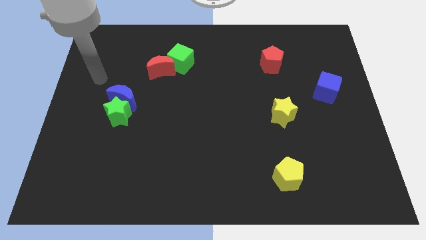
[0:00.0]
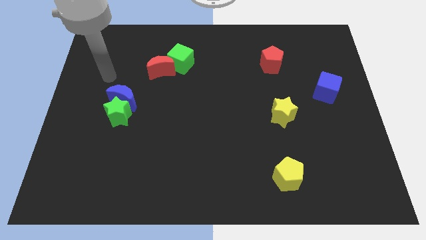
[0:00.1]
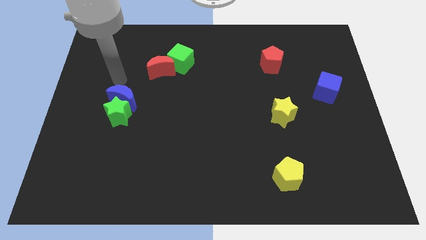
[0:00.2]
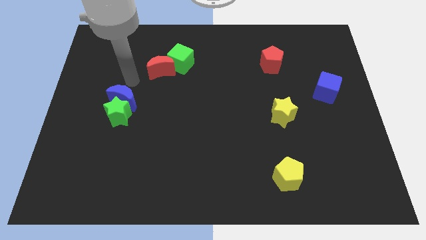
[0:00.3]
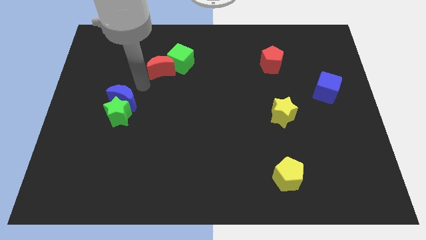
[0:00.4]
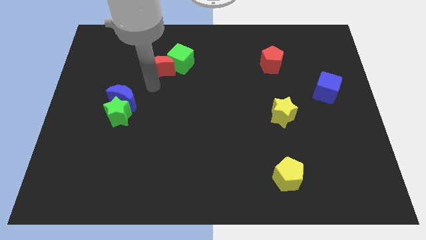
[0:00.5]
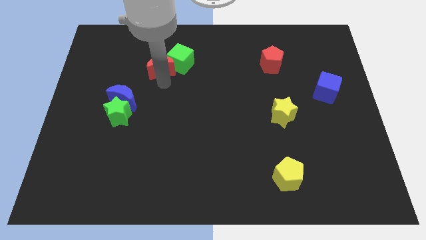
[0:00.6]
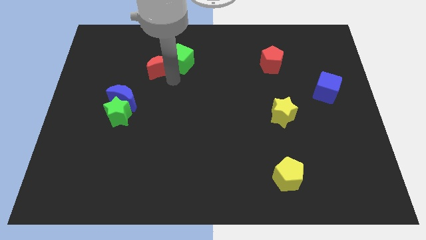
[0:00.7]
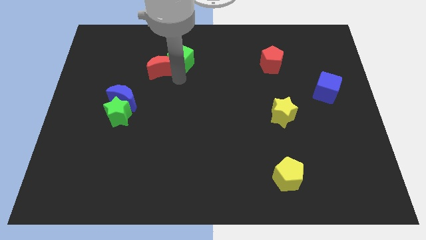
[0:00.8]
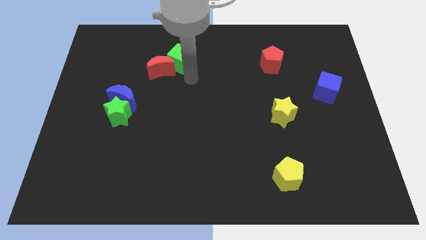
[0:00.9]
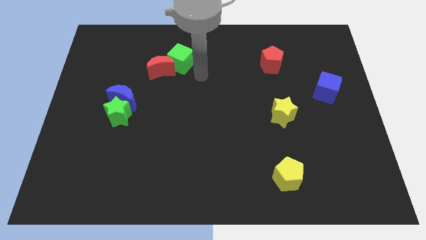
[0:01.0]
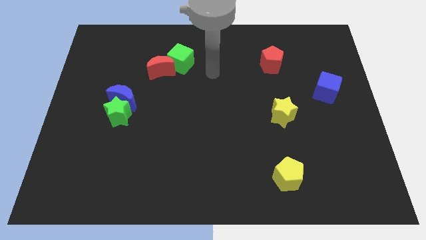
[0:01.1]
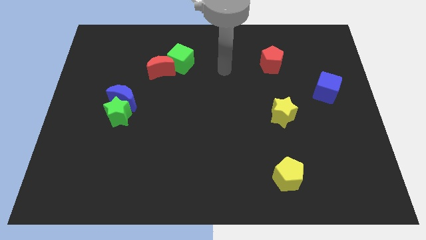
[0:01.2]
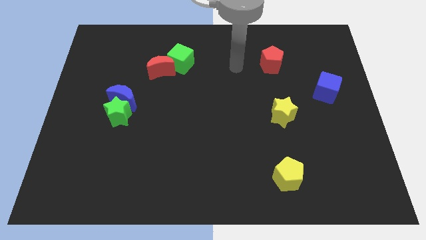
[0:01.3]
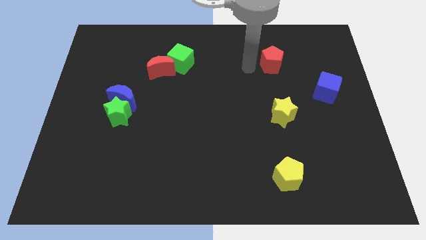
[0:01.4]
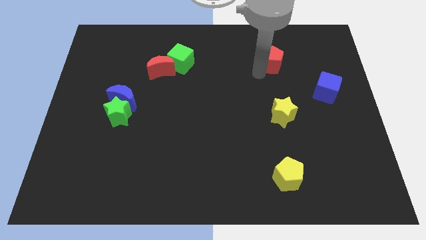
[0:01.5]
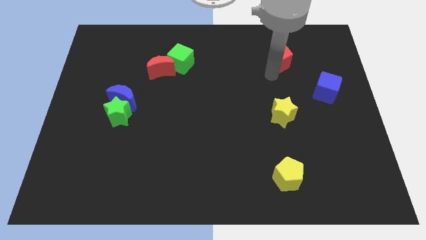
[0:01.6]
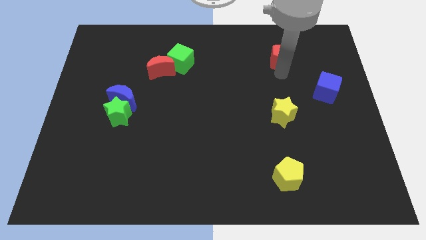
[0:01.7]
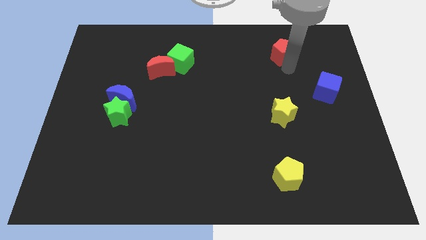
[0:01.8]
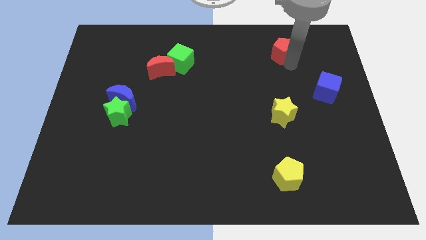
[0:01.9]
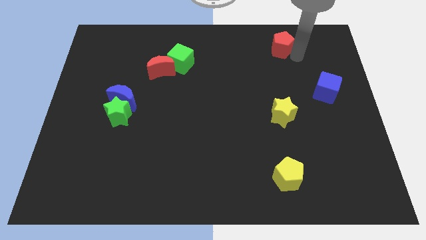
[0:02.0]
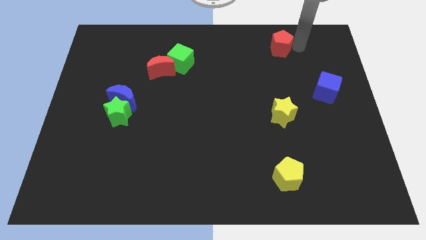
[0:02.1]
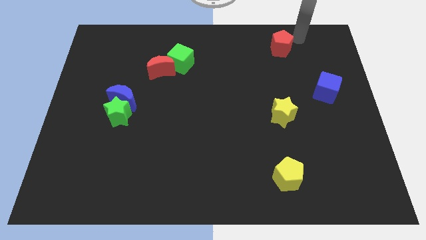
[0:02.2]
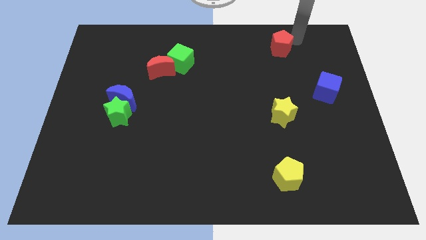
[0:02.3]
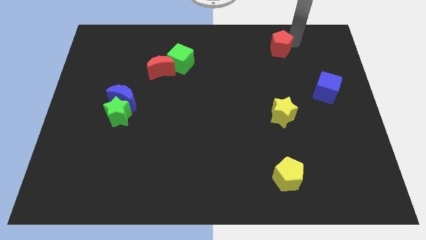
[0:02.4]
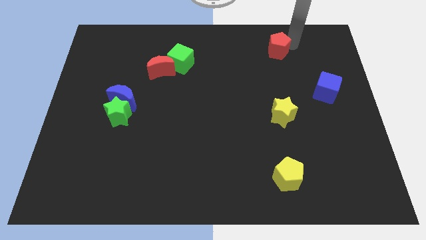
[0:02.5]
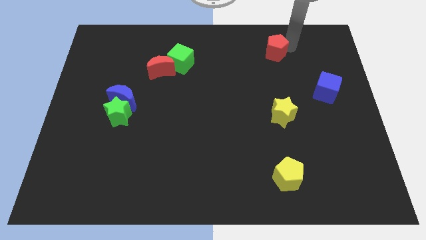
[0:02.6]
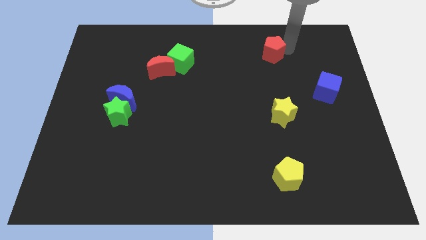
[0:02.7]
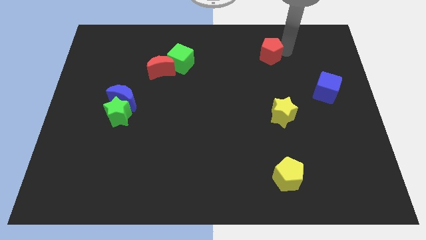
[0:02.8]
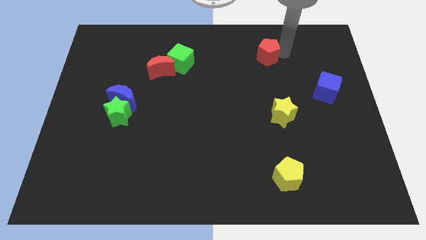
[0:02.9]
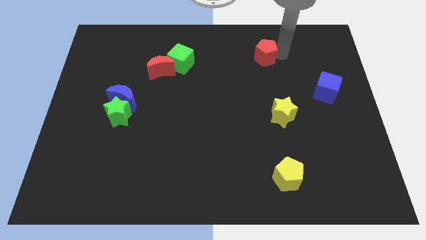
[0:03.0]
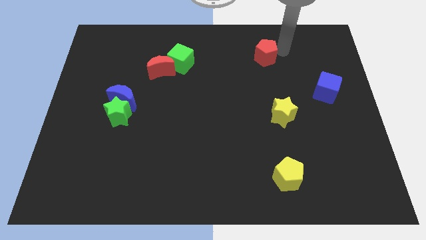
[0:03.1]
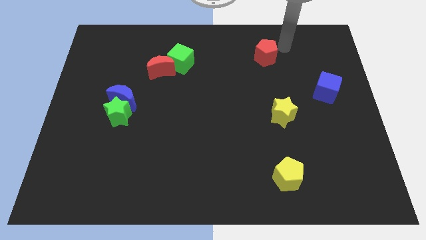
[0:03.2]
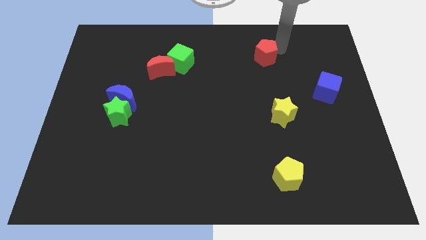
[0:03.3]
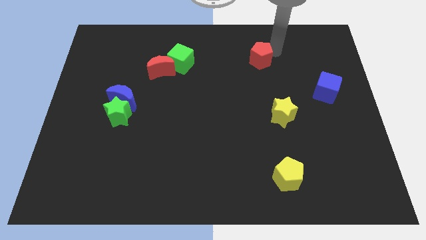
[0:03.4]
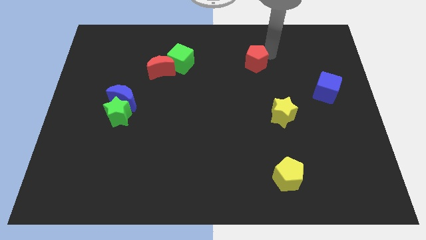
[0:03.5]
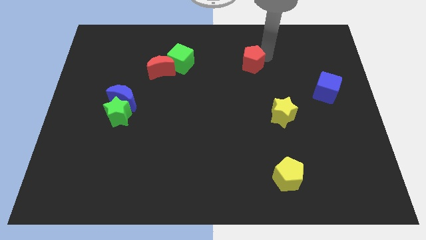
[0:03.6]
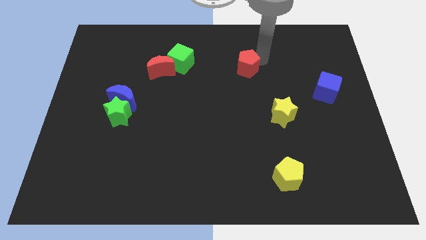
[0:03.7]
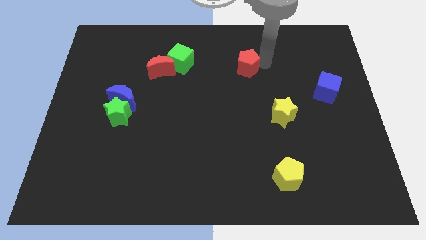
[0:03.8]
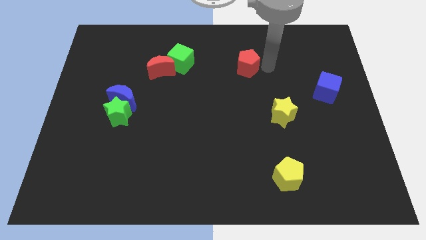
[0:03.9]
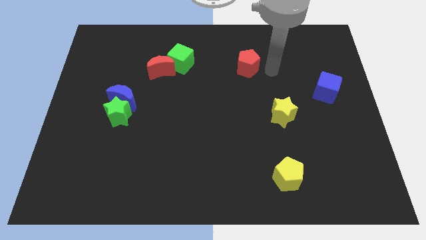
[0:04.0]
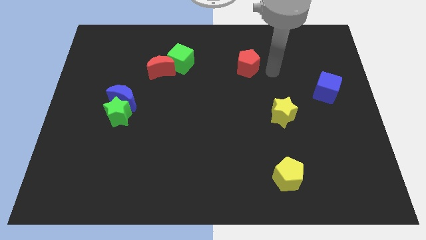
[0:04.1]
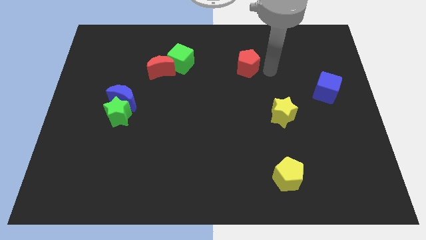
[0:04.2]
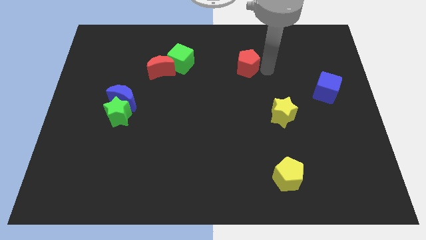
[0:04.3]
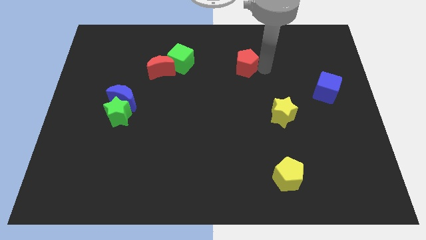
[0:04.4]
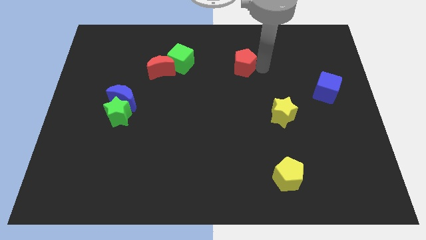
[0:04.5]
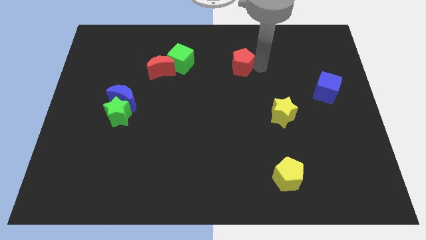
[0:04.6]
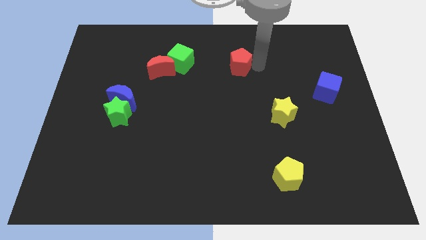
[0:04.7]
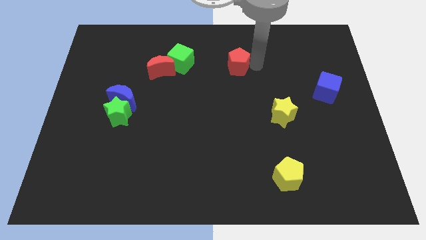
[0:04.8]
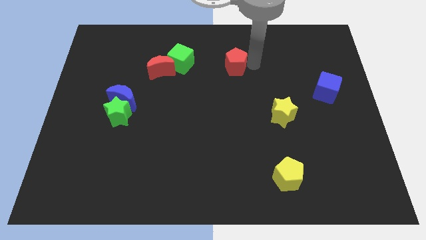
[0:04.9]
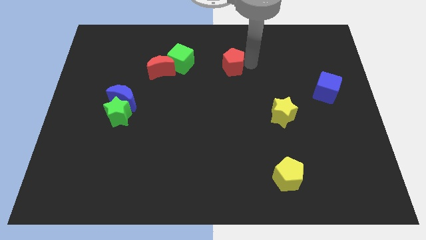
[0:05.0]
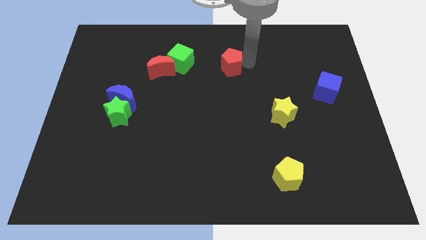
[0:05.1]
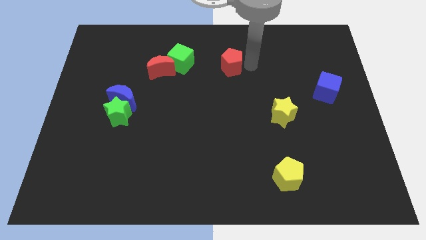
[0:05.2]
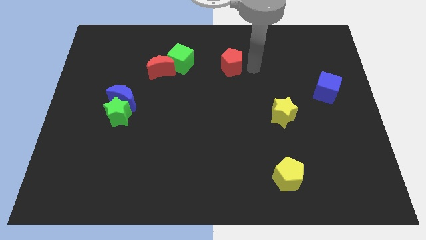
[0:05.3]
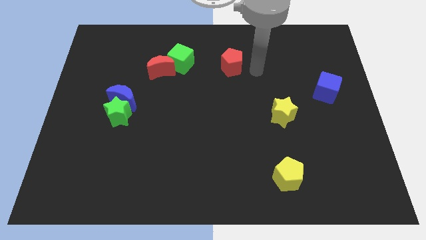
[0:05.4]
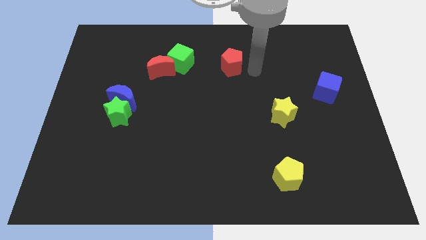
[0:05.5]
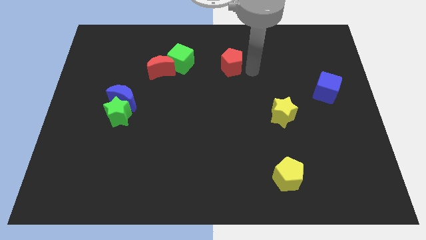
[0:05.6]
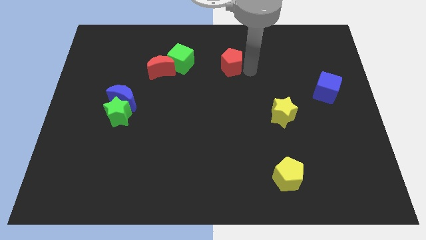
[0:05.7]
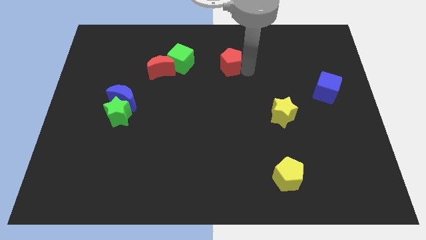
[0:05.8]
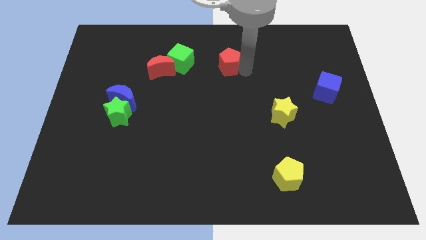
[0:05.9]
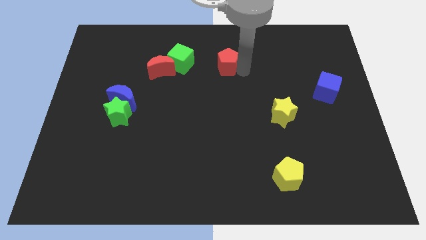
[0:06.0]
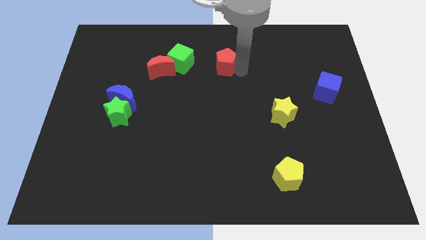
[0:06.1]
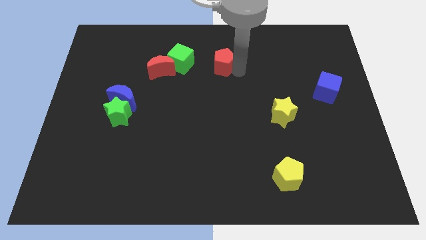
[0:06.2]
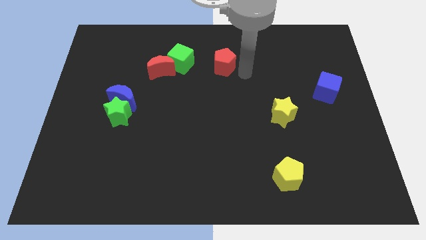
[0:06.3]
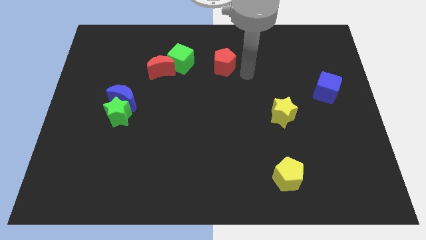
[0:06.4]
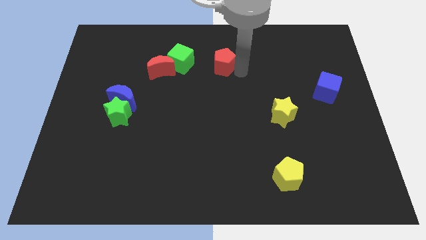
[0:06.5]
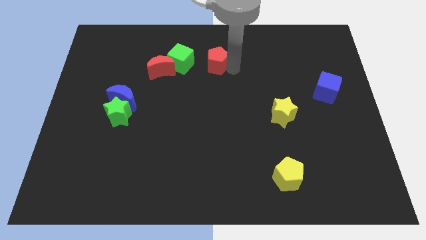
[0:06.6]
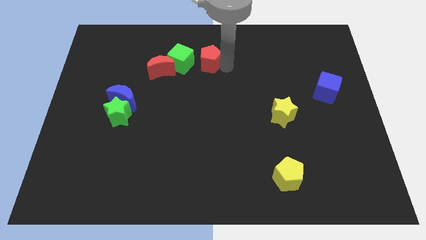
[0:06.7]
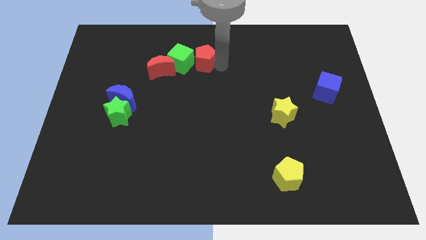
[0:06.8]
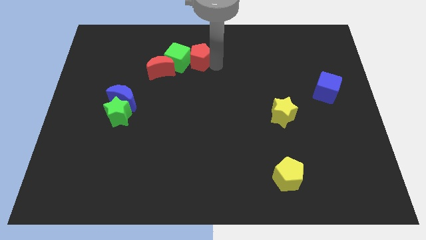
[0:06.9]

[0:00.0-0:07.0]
push the red pentagon diagonally up and to the right of the red moon

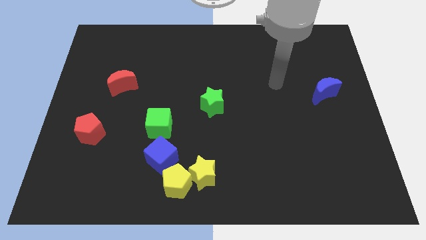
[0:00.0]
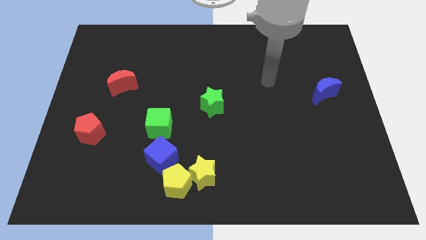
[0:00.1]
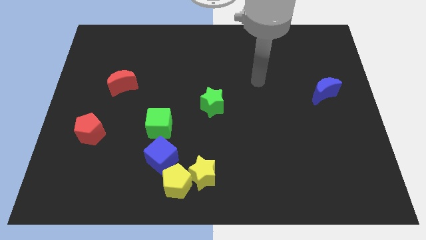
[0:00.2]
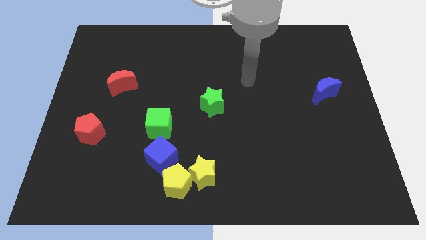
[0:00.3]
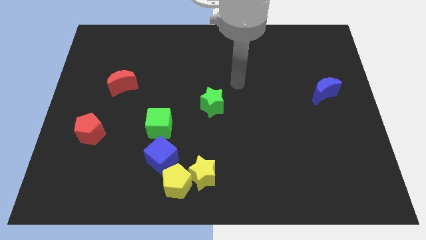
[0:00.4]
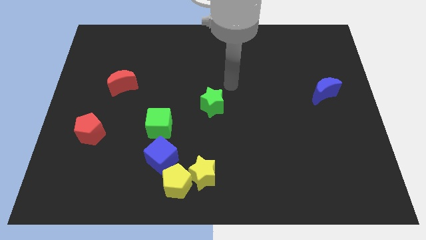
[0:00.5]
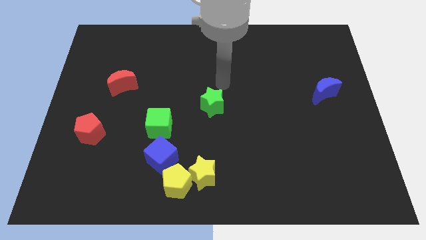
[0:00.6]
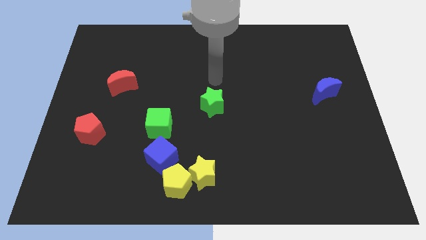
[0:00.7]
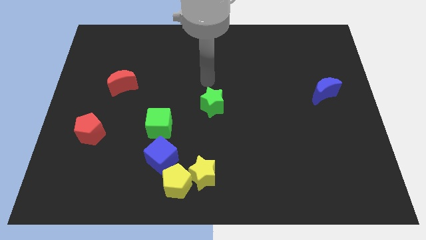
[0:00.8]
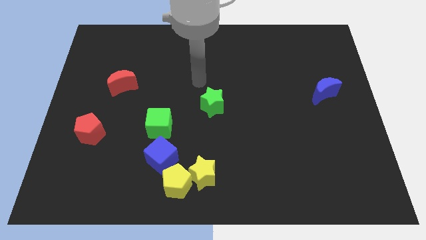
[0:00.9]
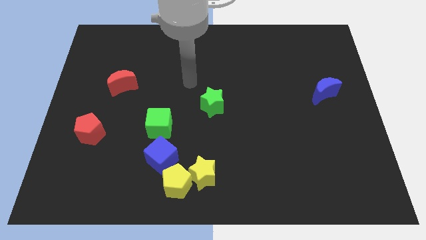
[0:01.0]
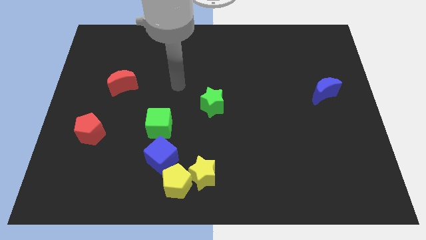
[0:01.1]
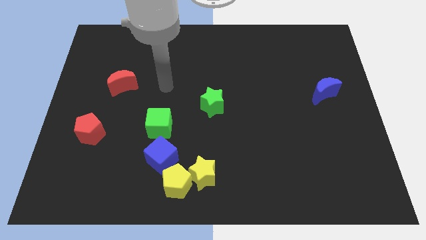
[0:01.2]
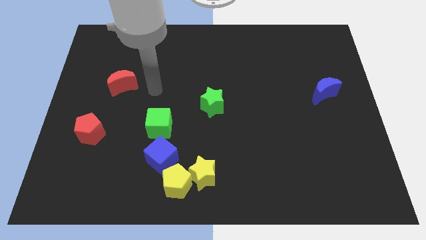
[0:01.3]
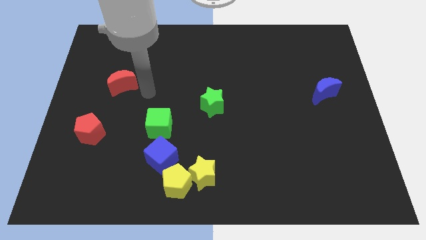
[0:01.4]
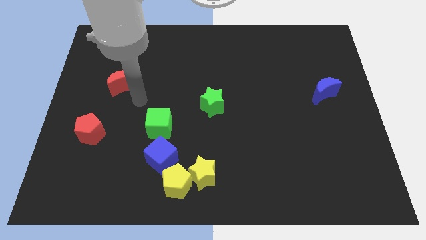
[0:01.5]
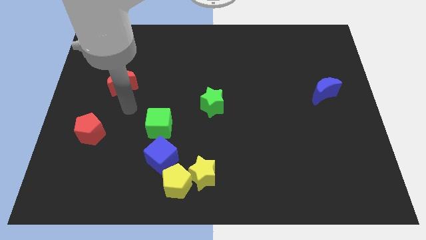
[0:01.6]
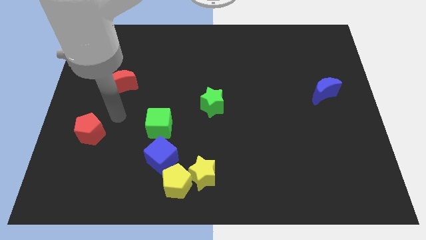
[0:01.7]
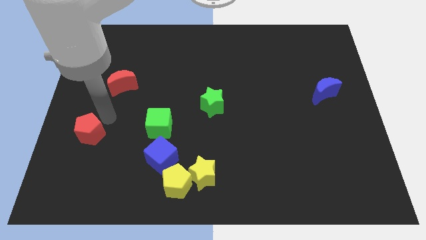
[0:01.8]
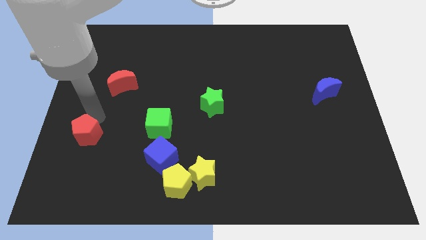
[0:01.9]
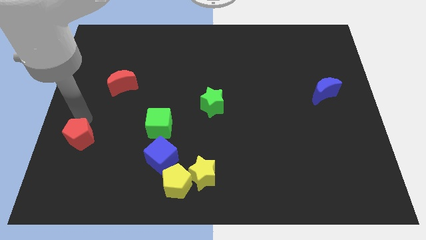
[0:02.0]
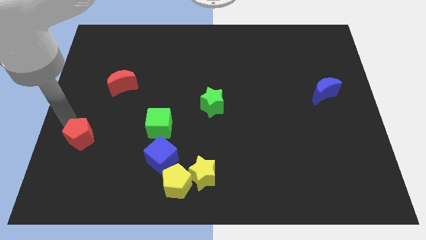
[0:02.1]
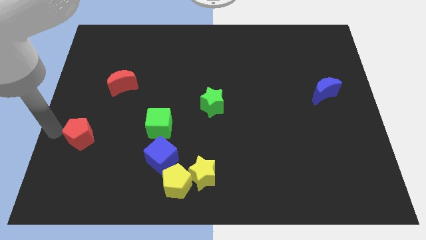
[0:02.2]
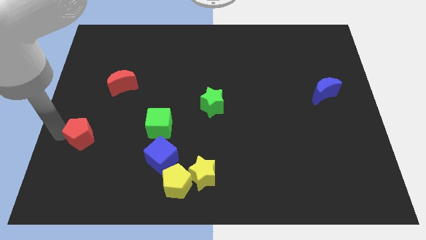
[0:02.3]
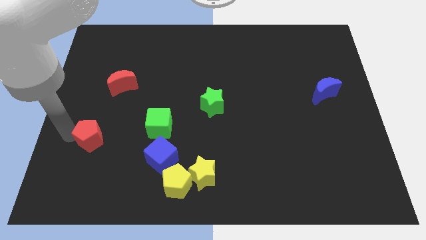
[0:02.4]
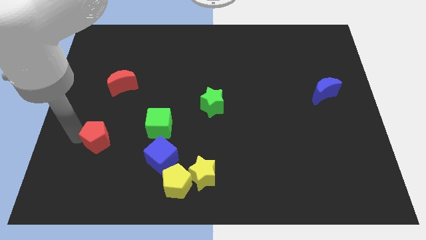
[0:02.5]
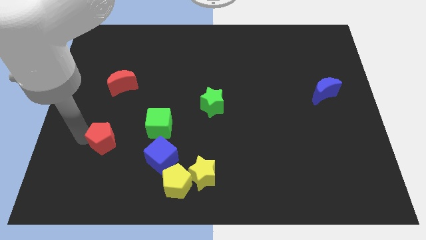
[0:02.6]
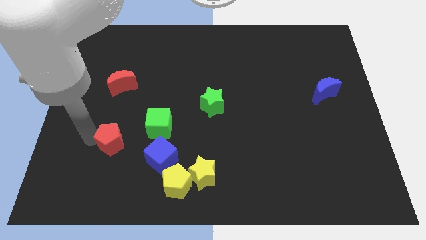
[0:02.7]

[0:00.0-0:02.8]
push the red pentagon to the bottom left of the green cube
